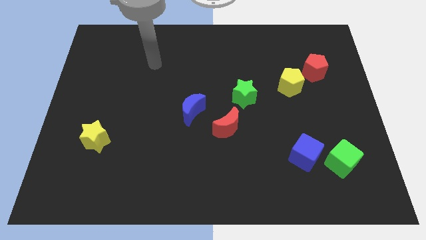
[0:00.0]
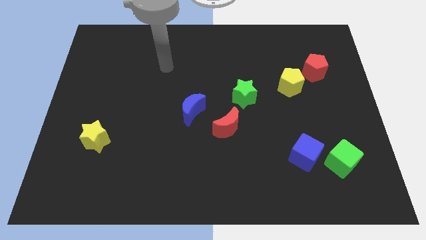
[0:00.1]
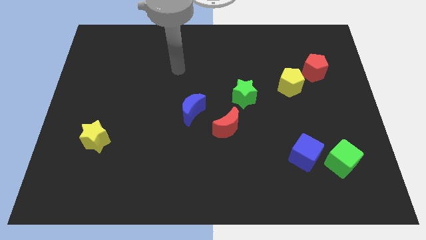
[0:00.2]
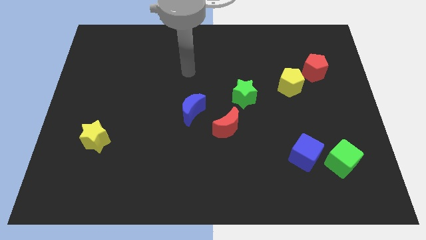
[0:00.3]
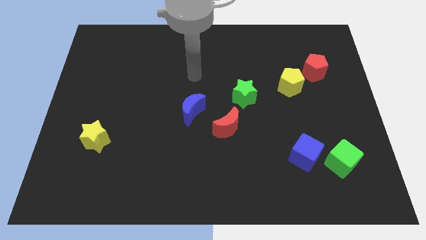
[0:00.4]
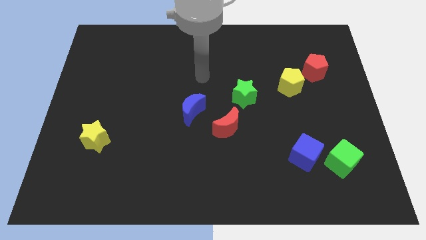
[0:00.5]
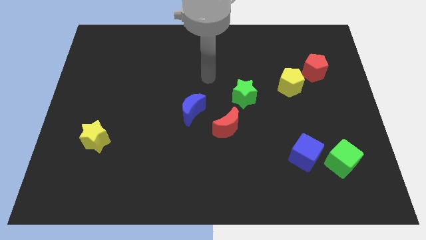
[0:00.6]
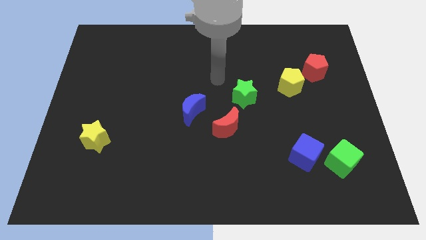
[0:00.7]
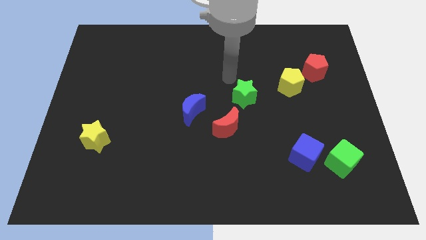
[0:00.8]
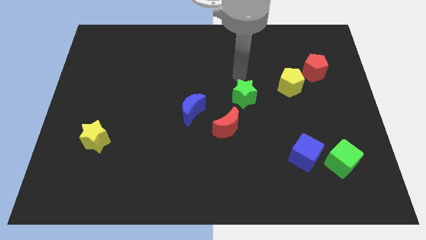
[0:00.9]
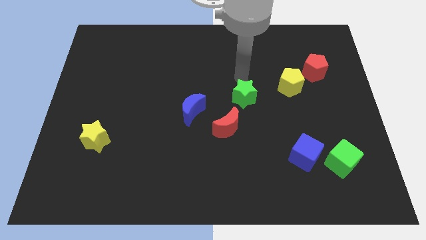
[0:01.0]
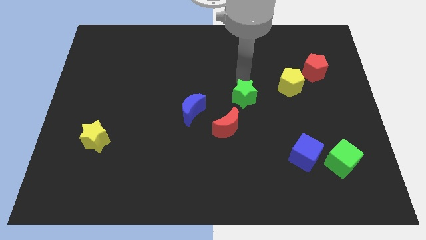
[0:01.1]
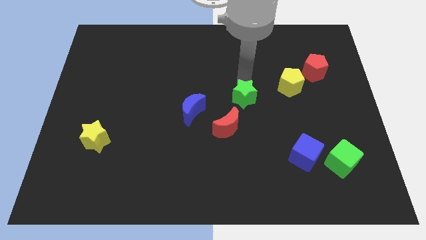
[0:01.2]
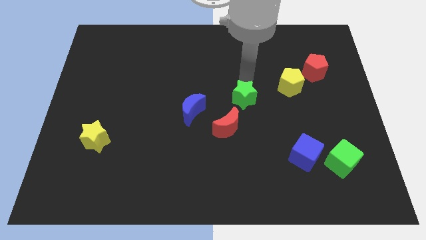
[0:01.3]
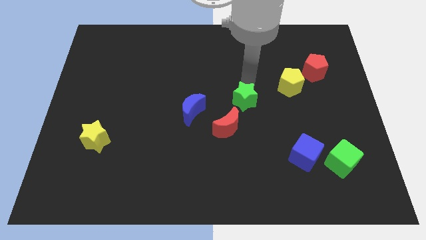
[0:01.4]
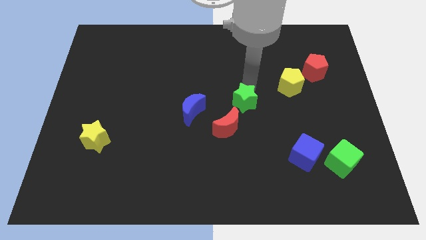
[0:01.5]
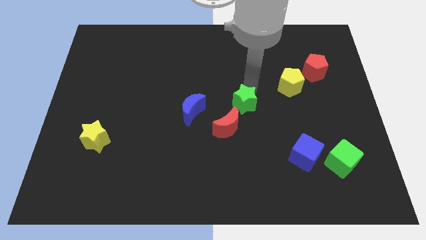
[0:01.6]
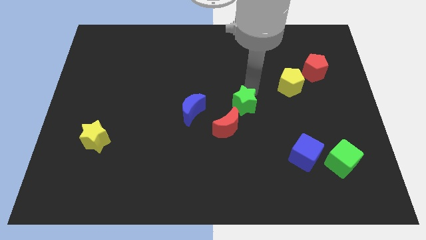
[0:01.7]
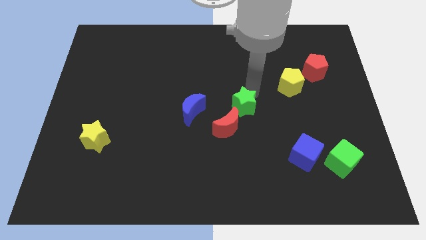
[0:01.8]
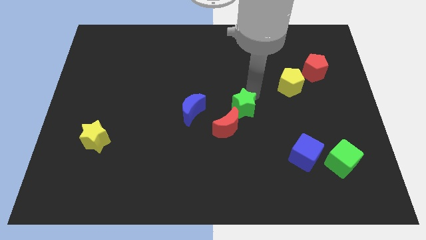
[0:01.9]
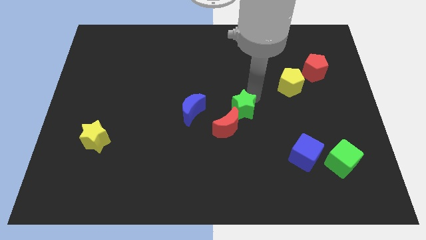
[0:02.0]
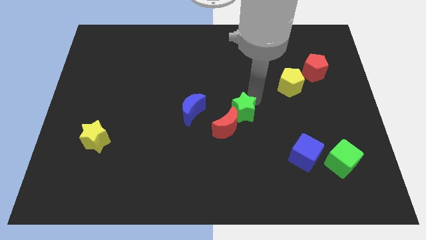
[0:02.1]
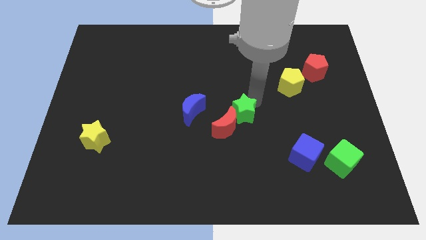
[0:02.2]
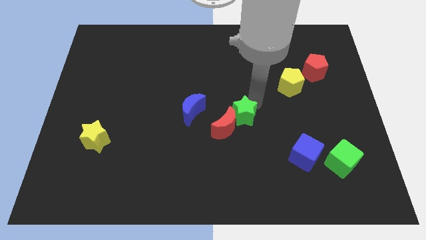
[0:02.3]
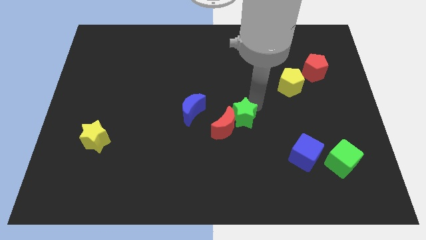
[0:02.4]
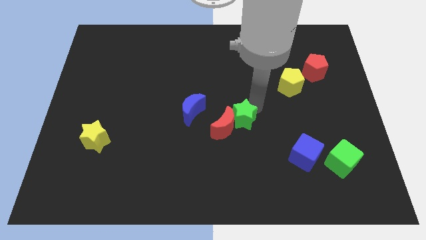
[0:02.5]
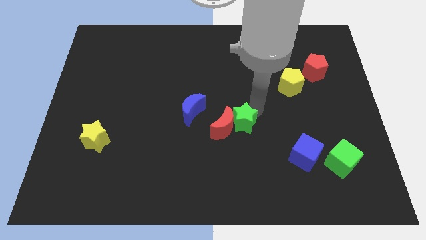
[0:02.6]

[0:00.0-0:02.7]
slide the green star a bit down

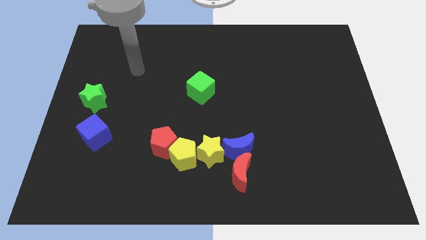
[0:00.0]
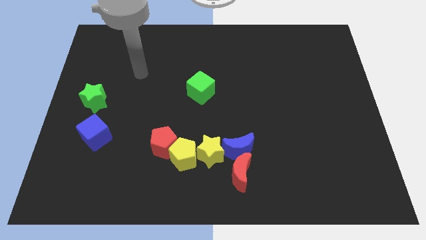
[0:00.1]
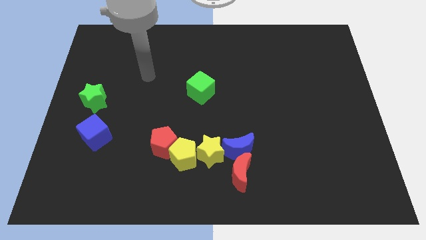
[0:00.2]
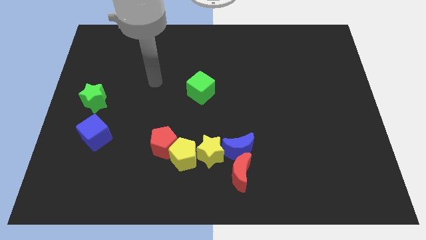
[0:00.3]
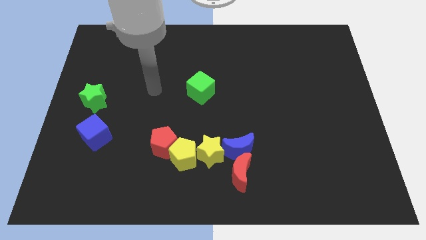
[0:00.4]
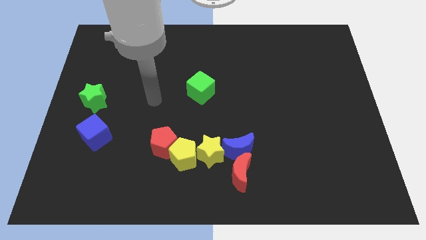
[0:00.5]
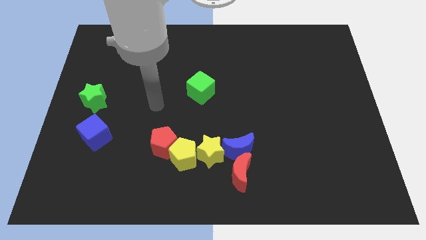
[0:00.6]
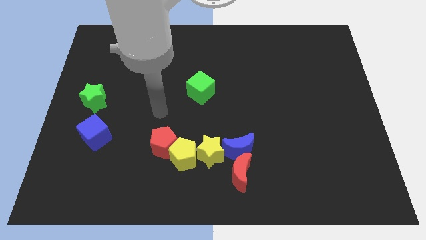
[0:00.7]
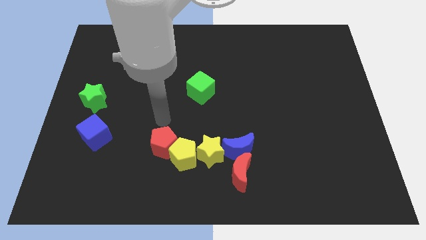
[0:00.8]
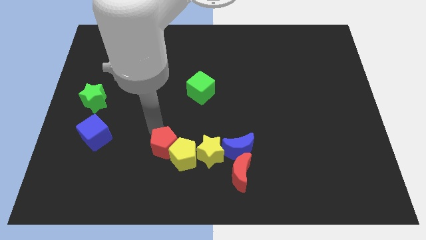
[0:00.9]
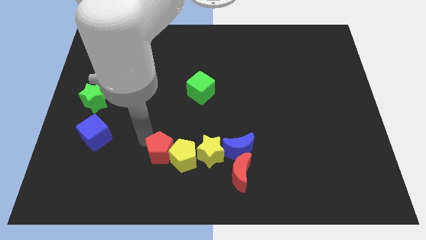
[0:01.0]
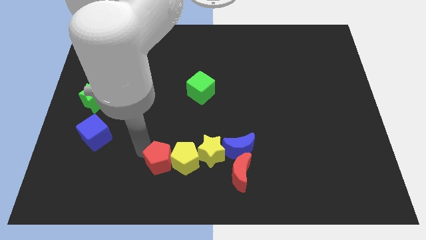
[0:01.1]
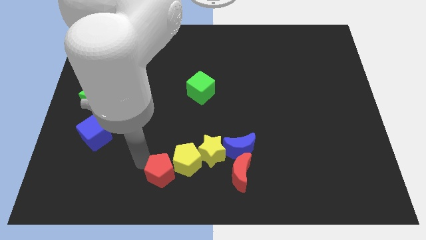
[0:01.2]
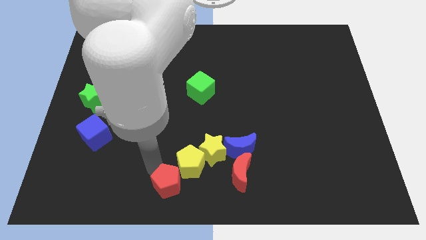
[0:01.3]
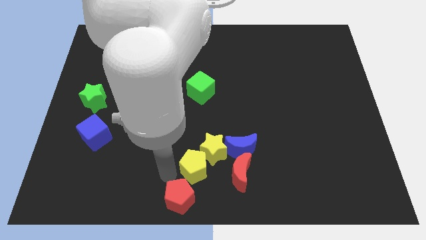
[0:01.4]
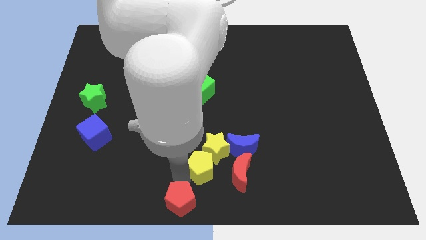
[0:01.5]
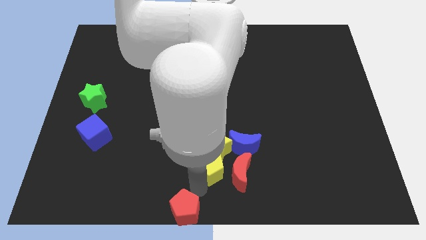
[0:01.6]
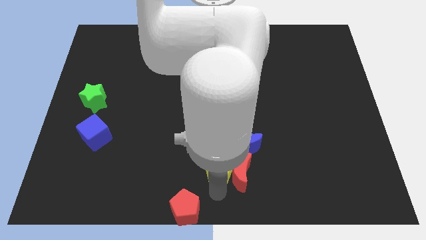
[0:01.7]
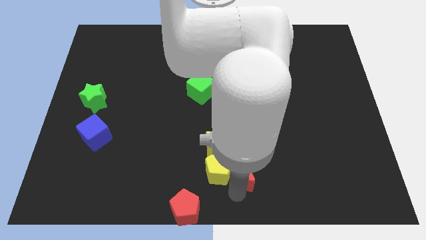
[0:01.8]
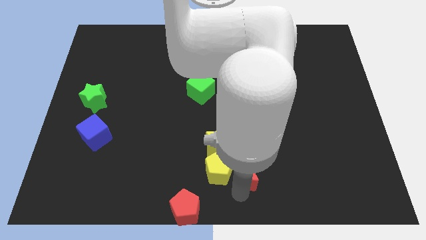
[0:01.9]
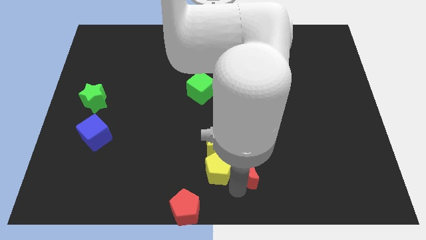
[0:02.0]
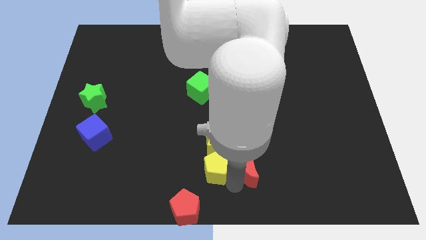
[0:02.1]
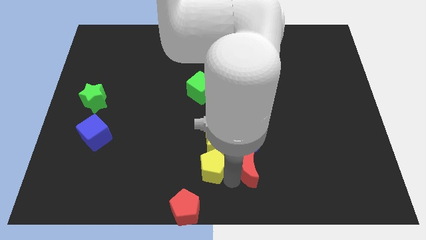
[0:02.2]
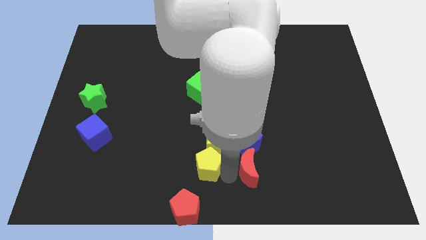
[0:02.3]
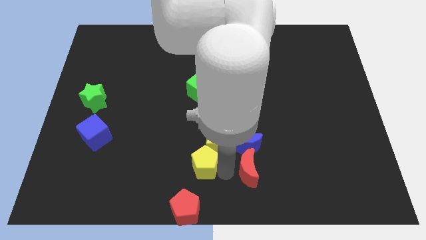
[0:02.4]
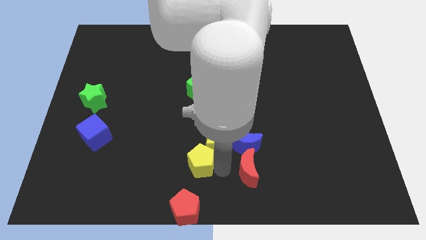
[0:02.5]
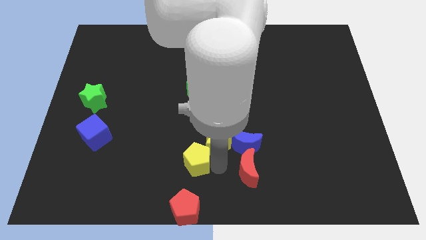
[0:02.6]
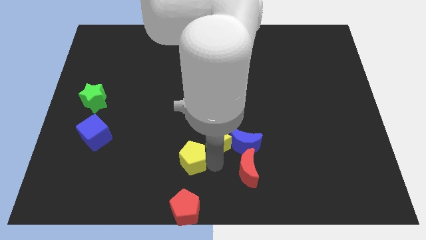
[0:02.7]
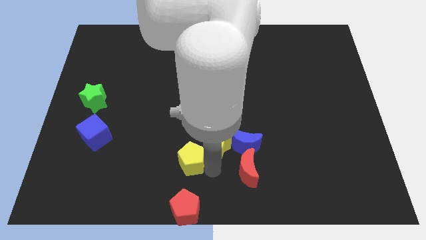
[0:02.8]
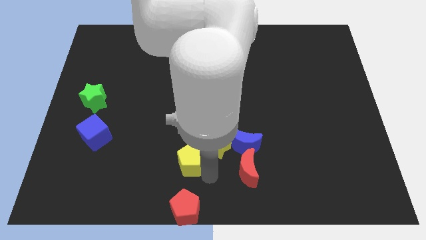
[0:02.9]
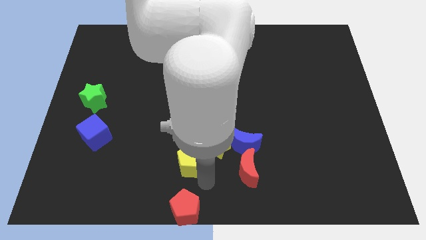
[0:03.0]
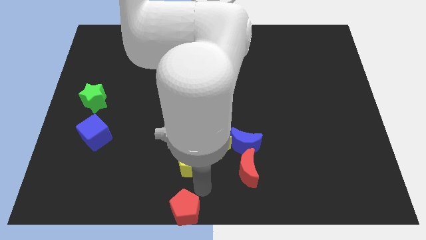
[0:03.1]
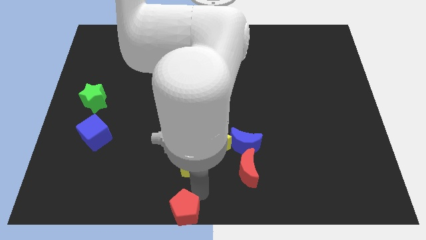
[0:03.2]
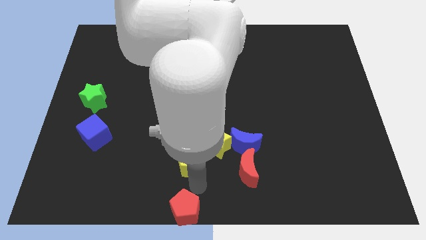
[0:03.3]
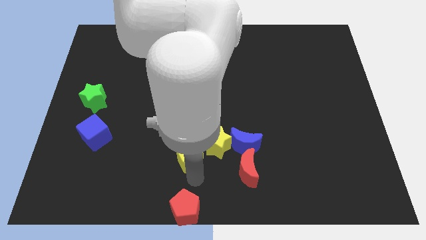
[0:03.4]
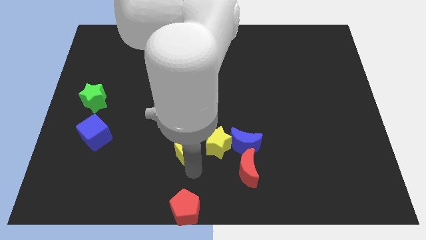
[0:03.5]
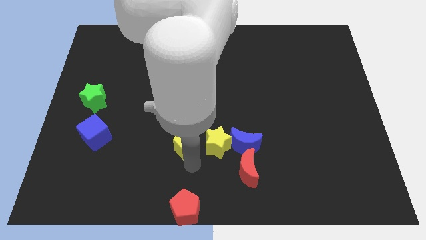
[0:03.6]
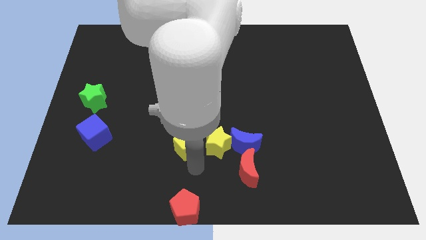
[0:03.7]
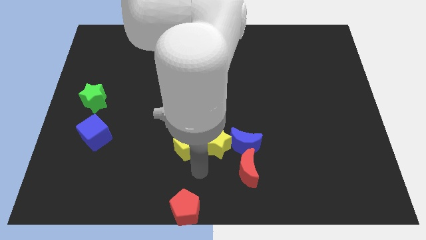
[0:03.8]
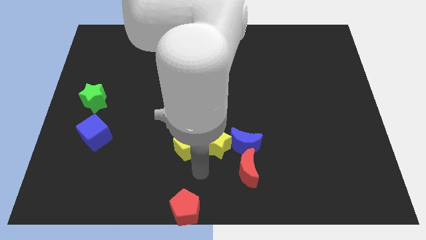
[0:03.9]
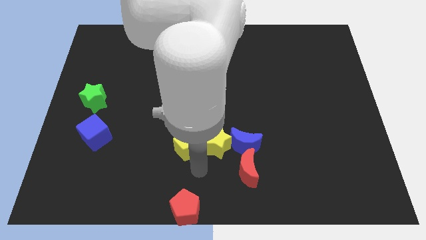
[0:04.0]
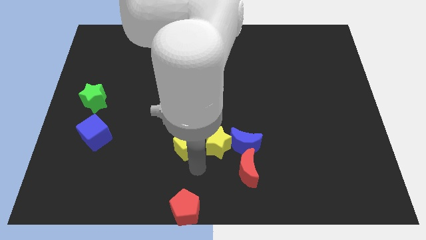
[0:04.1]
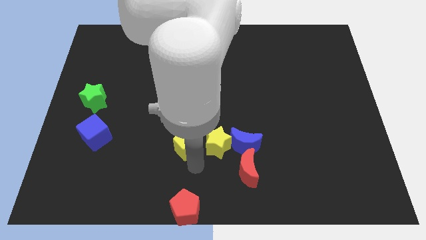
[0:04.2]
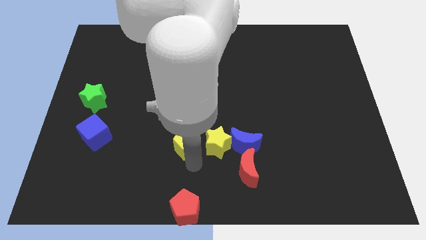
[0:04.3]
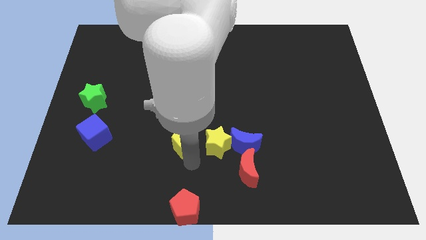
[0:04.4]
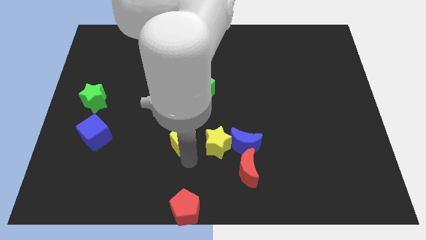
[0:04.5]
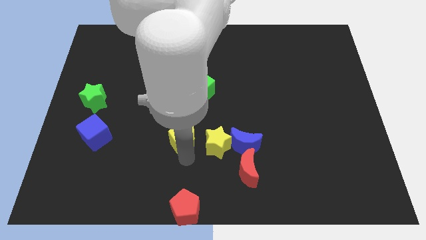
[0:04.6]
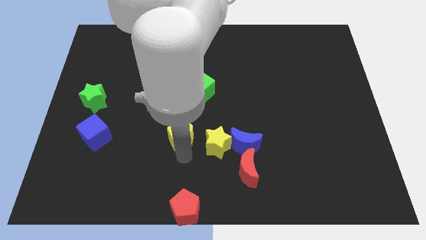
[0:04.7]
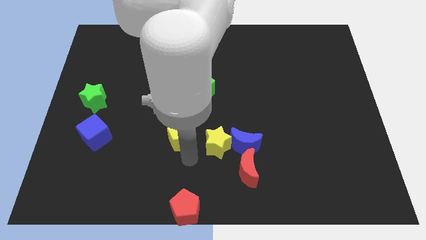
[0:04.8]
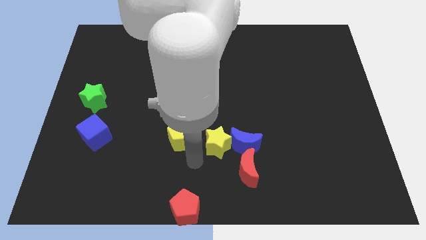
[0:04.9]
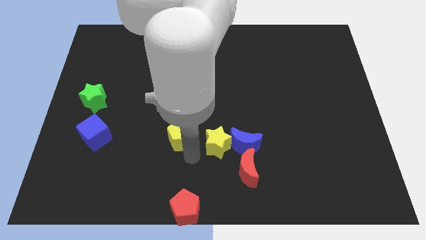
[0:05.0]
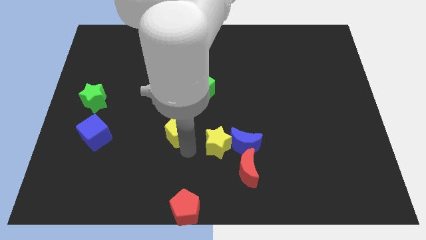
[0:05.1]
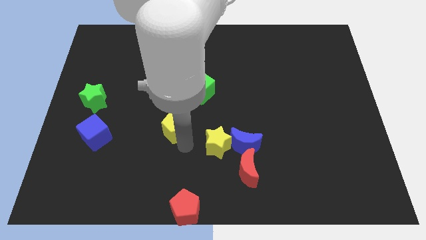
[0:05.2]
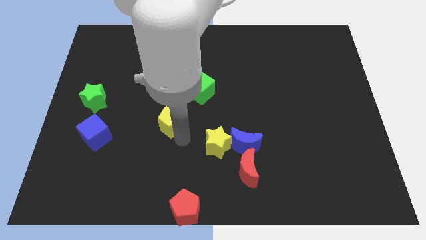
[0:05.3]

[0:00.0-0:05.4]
slightly slide the yellow pentagon up and then to the left
